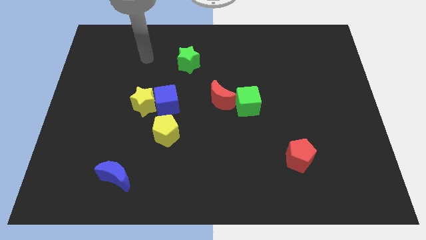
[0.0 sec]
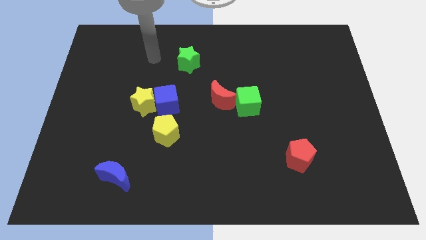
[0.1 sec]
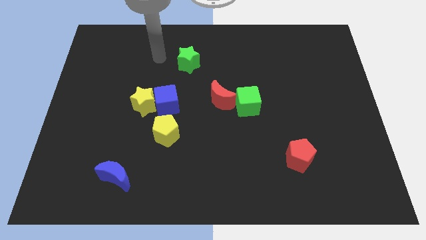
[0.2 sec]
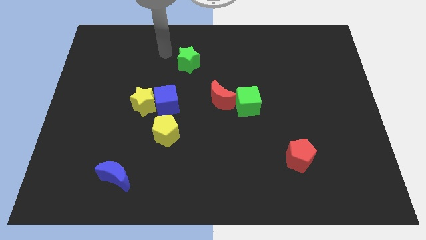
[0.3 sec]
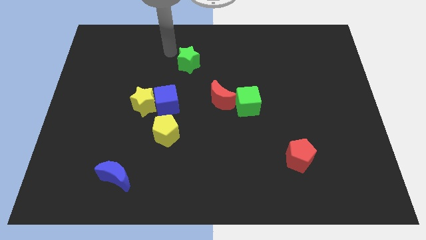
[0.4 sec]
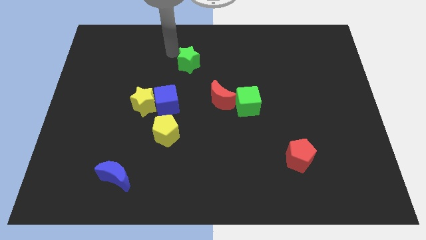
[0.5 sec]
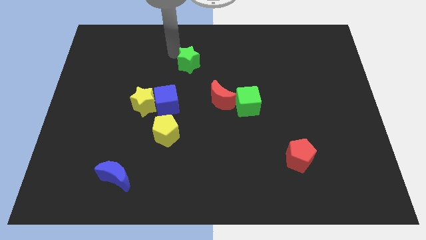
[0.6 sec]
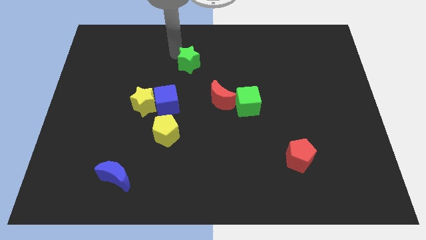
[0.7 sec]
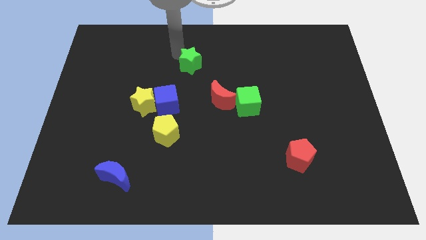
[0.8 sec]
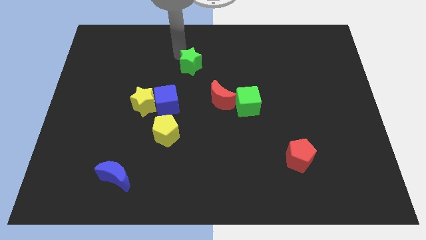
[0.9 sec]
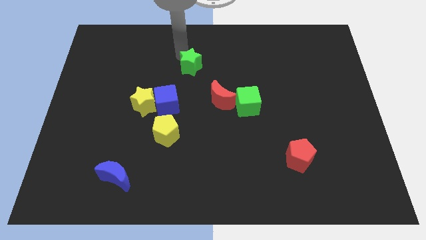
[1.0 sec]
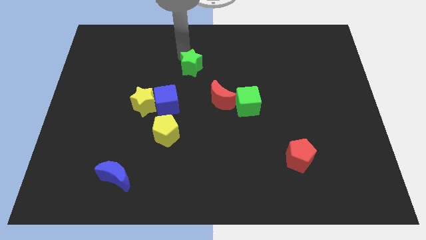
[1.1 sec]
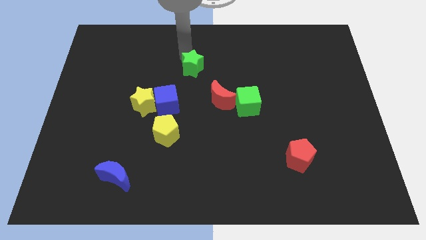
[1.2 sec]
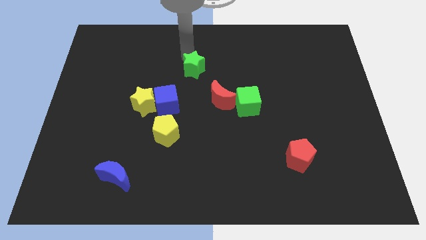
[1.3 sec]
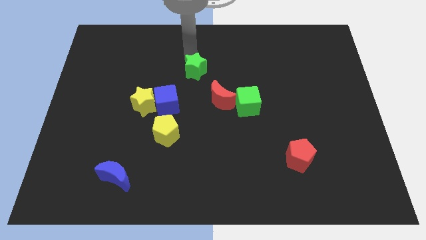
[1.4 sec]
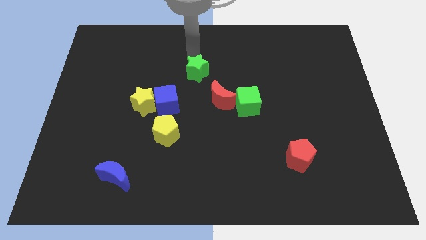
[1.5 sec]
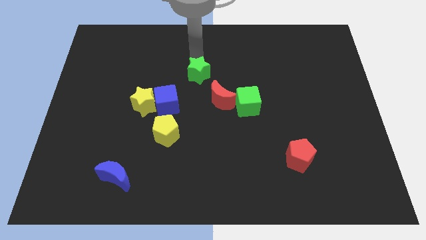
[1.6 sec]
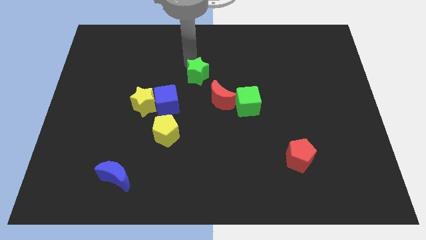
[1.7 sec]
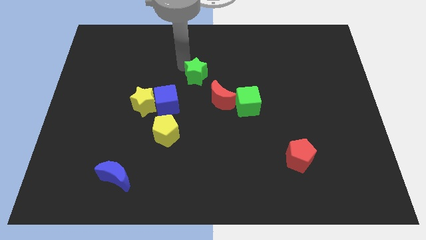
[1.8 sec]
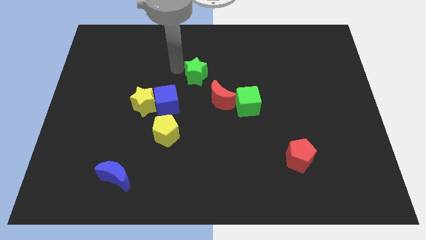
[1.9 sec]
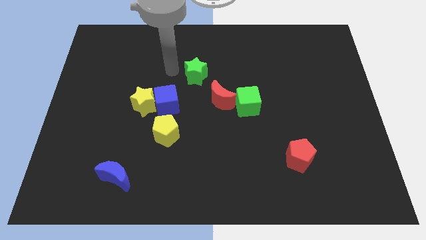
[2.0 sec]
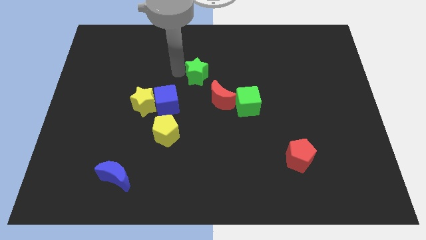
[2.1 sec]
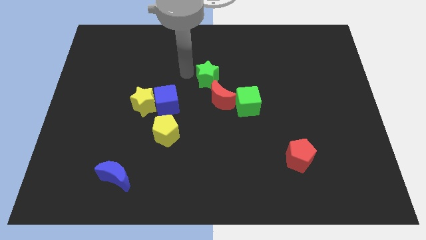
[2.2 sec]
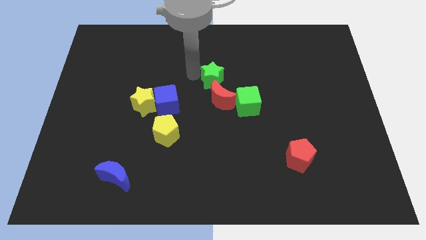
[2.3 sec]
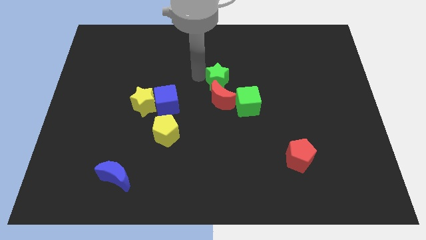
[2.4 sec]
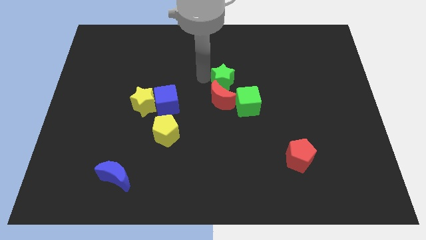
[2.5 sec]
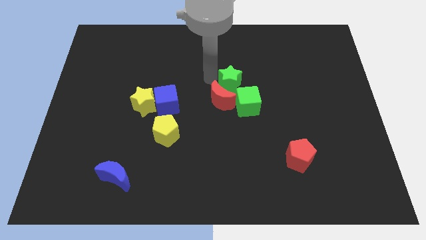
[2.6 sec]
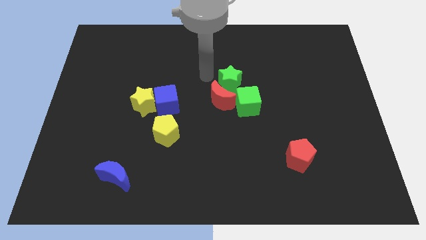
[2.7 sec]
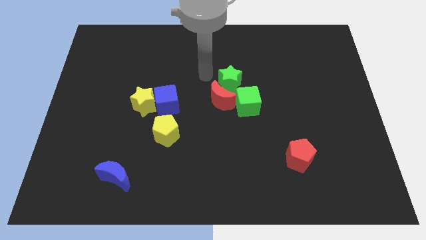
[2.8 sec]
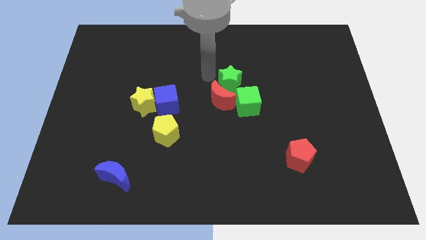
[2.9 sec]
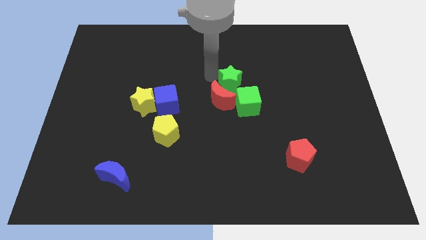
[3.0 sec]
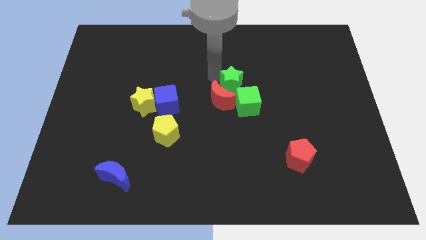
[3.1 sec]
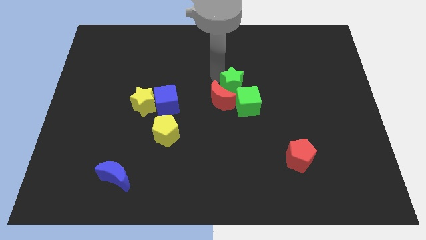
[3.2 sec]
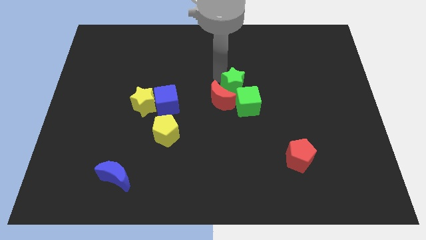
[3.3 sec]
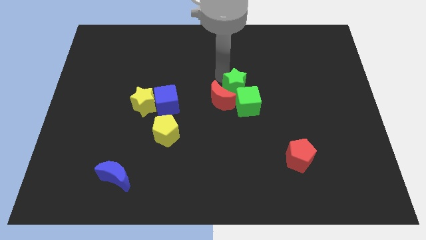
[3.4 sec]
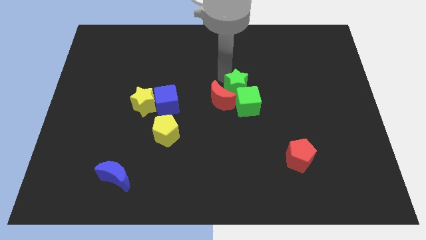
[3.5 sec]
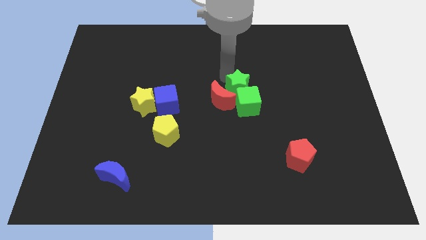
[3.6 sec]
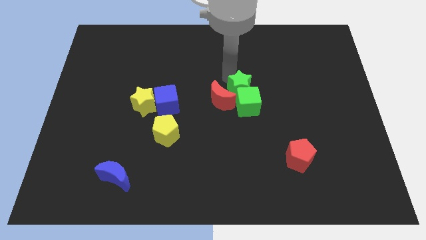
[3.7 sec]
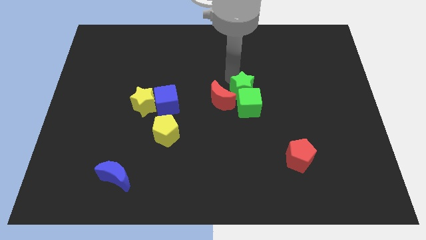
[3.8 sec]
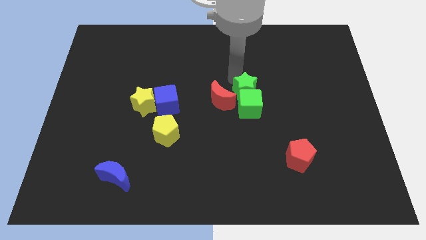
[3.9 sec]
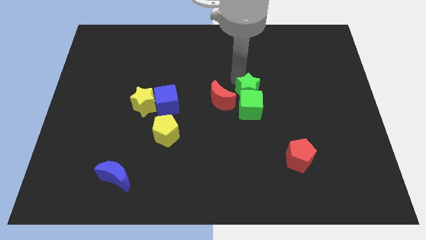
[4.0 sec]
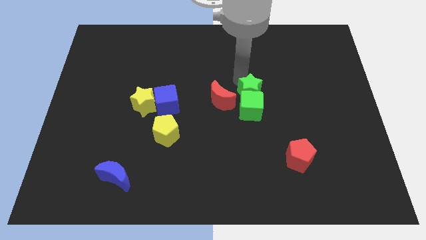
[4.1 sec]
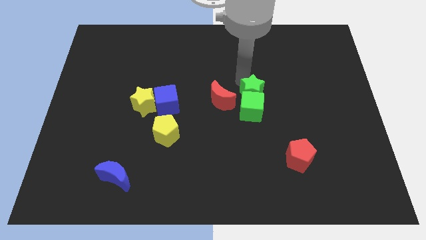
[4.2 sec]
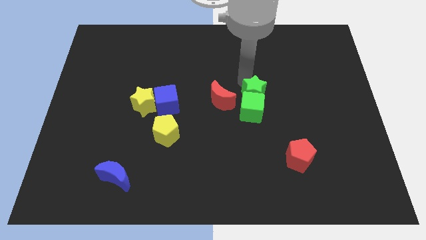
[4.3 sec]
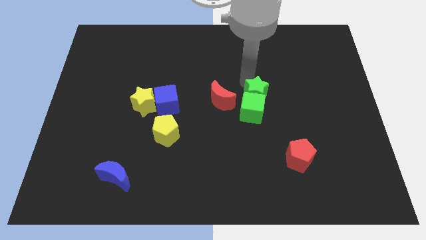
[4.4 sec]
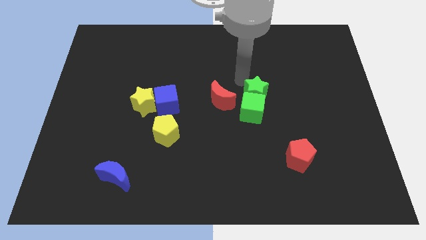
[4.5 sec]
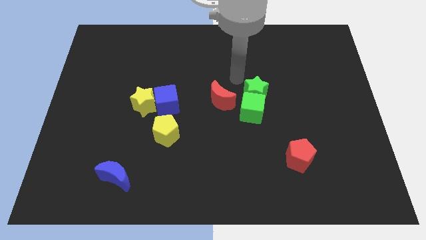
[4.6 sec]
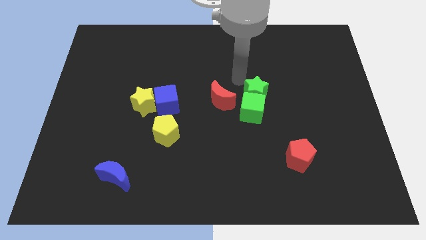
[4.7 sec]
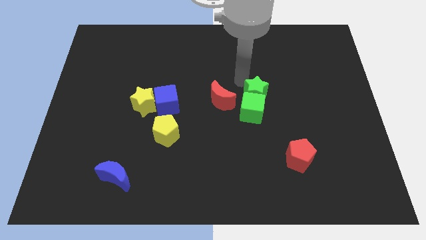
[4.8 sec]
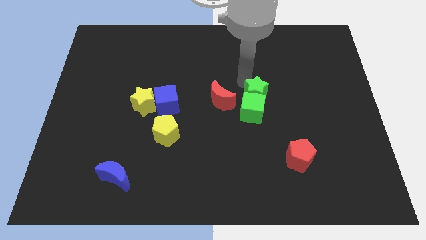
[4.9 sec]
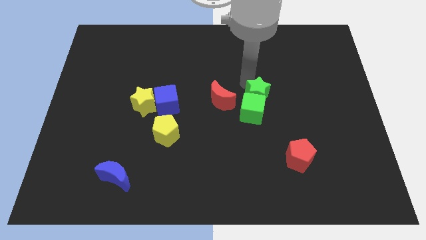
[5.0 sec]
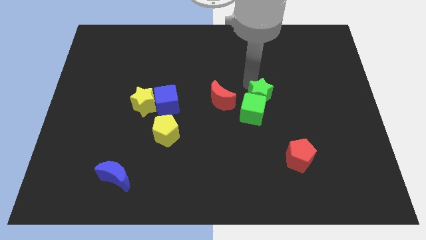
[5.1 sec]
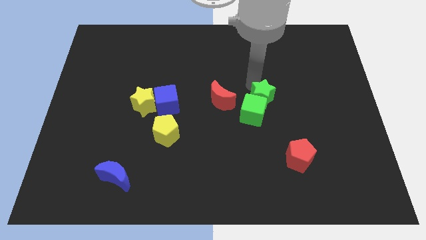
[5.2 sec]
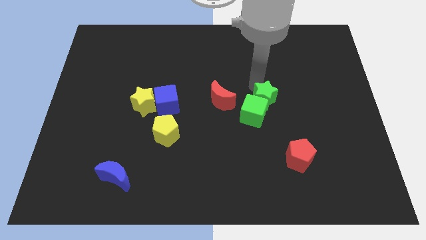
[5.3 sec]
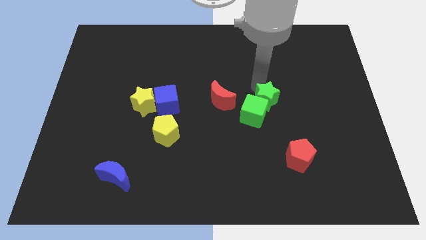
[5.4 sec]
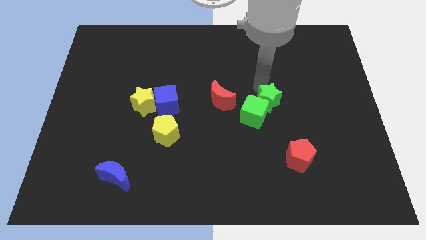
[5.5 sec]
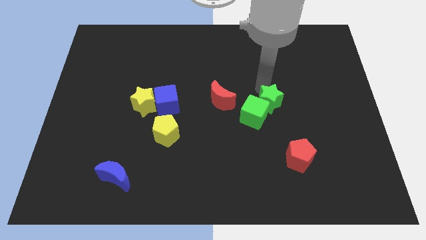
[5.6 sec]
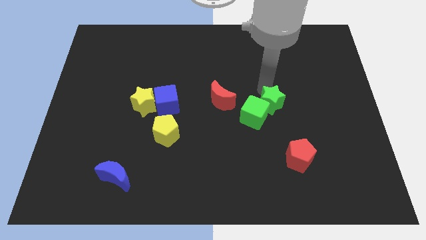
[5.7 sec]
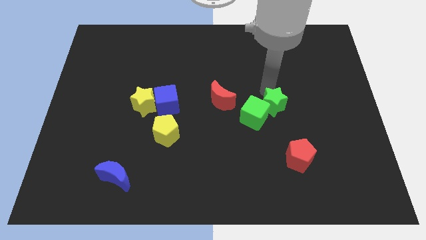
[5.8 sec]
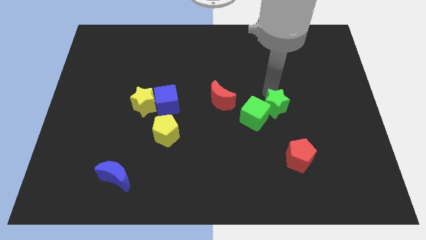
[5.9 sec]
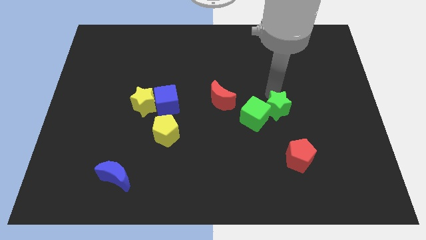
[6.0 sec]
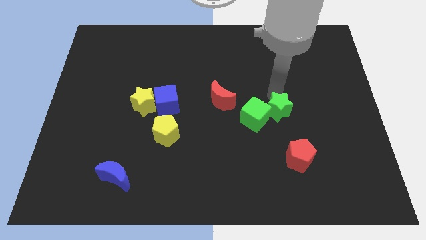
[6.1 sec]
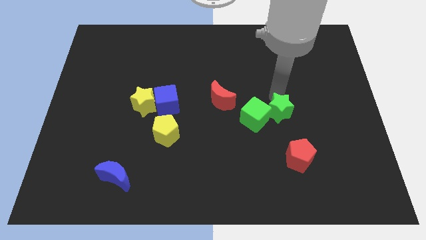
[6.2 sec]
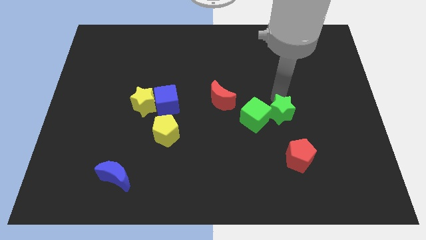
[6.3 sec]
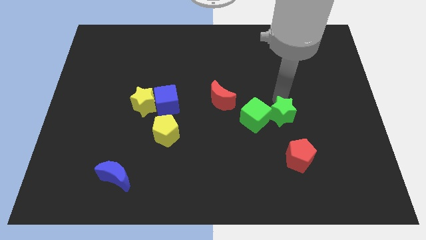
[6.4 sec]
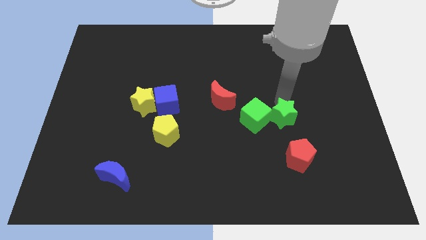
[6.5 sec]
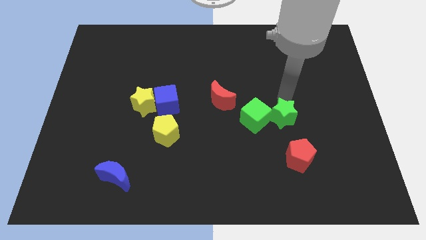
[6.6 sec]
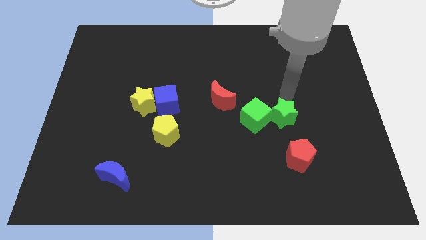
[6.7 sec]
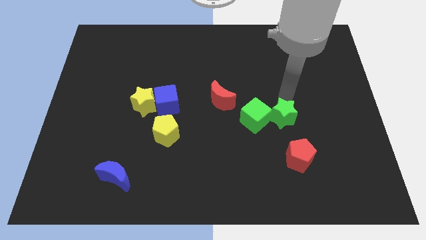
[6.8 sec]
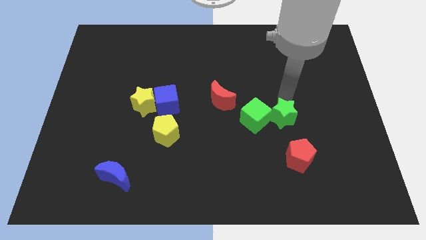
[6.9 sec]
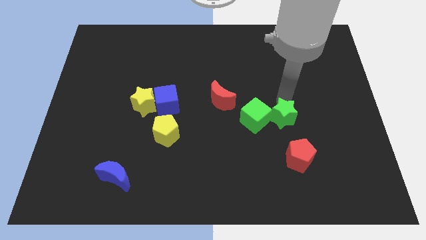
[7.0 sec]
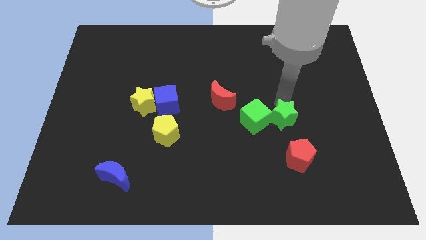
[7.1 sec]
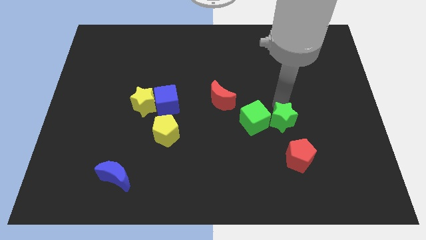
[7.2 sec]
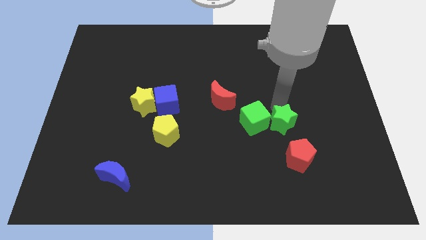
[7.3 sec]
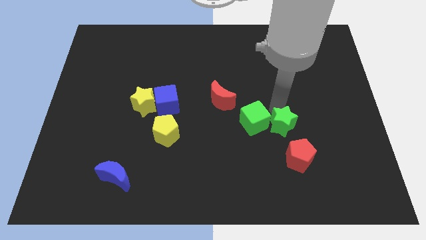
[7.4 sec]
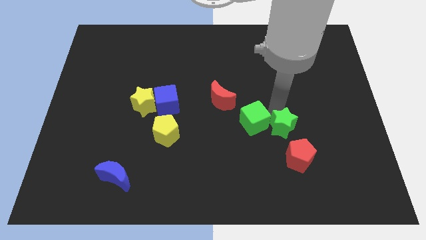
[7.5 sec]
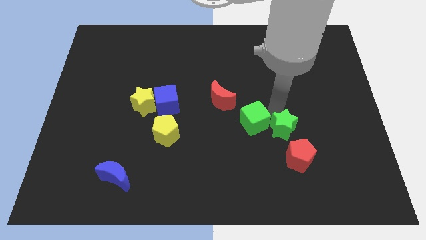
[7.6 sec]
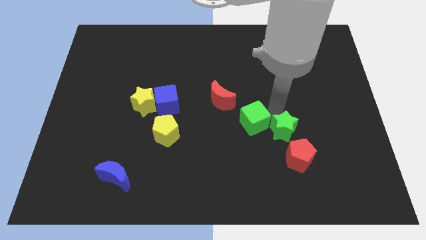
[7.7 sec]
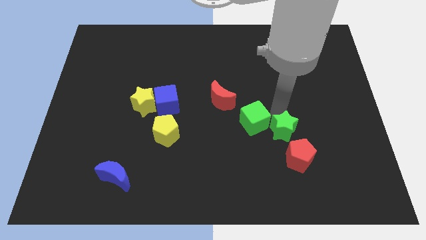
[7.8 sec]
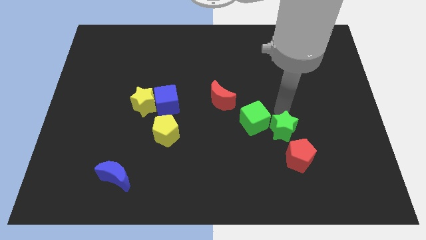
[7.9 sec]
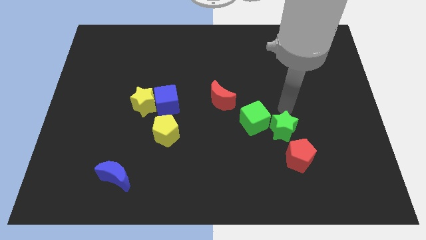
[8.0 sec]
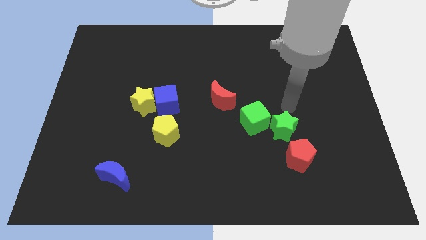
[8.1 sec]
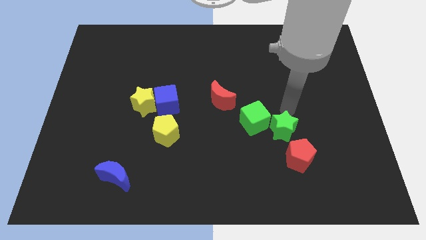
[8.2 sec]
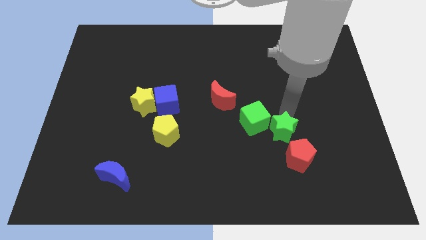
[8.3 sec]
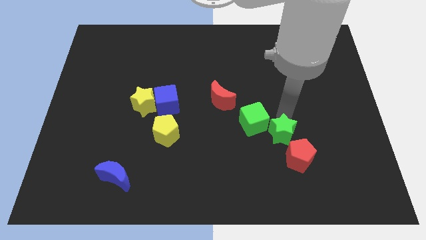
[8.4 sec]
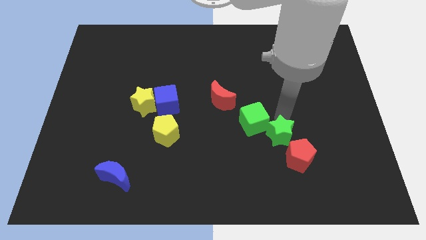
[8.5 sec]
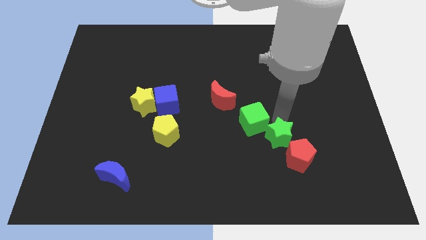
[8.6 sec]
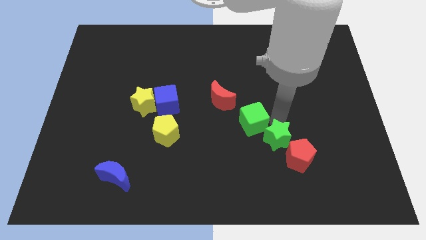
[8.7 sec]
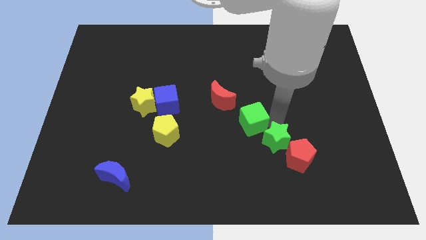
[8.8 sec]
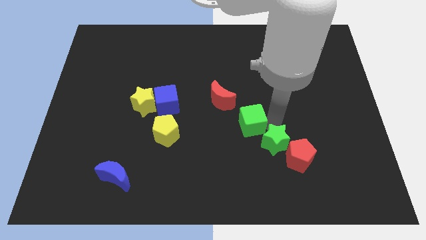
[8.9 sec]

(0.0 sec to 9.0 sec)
push the green star next to the red pentagon
